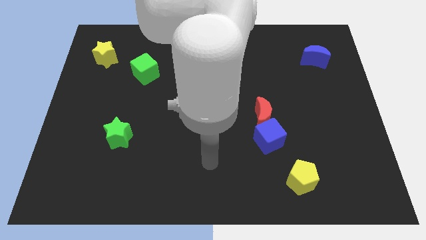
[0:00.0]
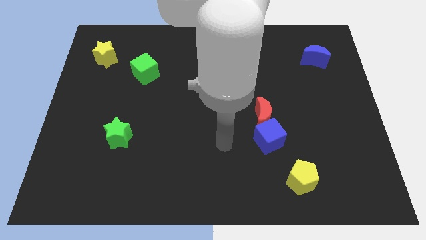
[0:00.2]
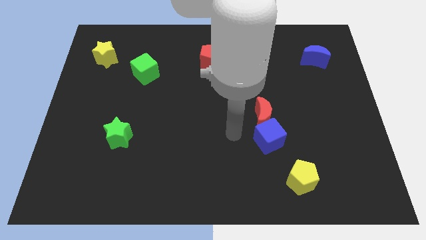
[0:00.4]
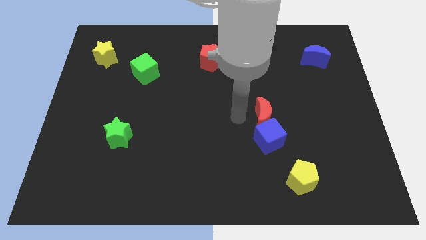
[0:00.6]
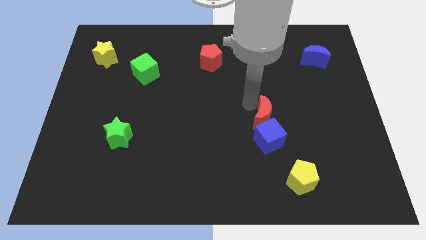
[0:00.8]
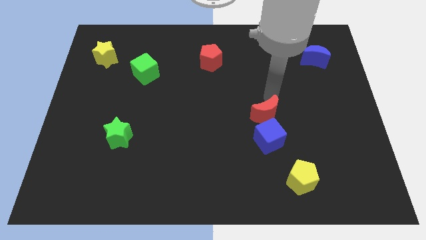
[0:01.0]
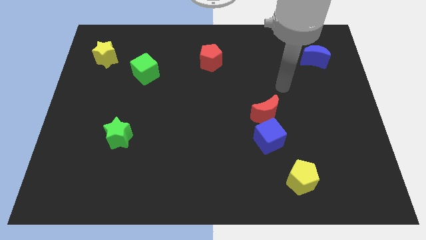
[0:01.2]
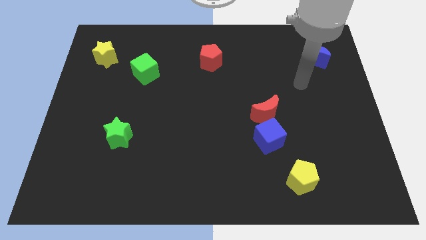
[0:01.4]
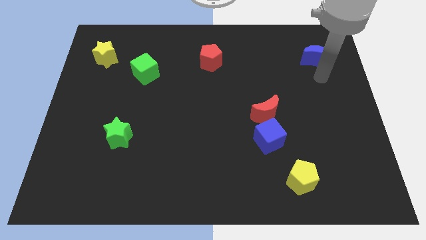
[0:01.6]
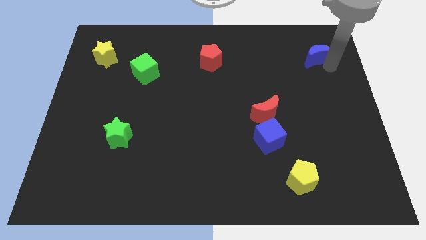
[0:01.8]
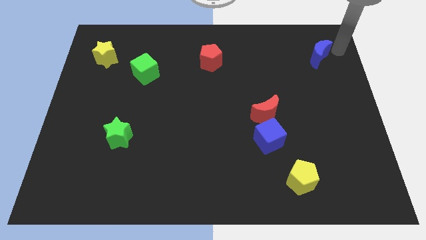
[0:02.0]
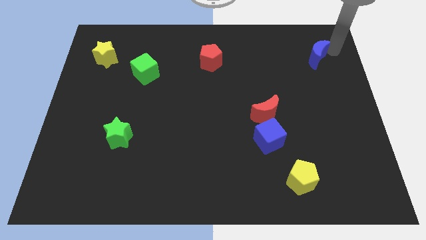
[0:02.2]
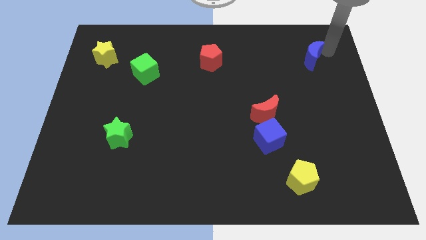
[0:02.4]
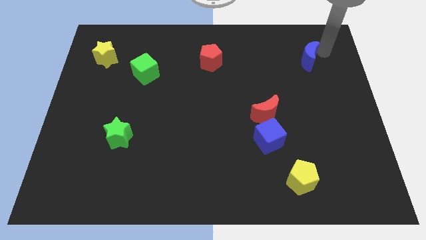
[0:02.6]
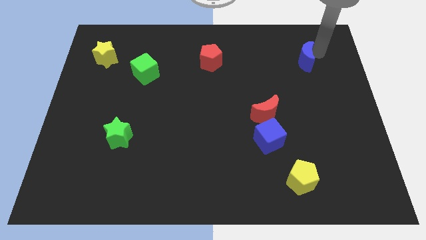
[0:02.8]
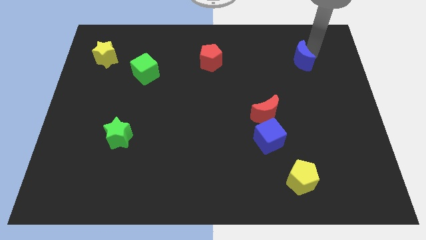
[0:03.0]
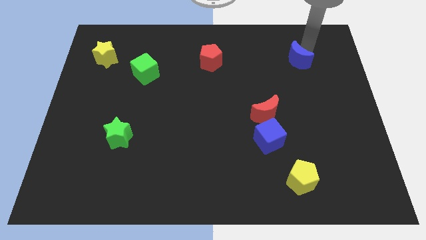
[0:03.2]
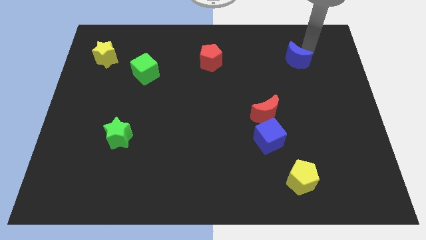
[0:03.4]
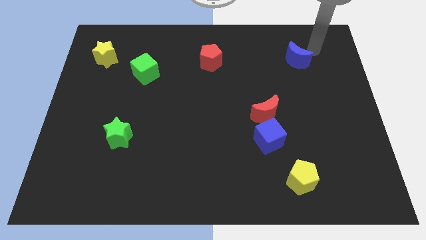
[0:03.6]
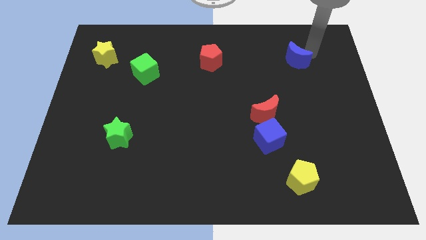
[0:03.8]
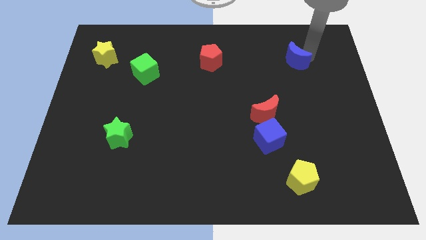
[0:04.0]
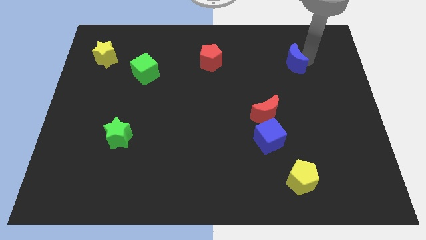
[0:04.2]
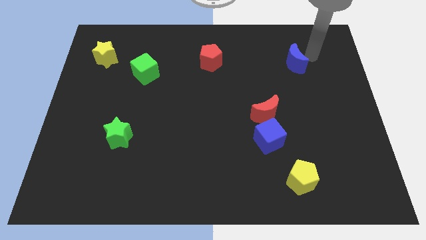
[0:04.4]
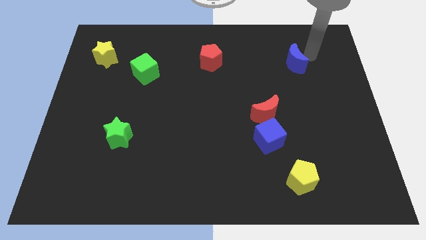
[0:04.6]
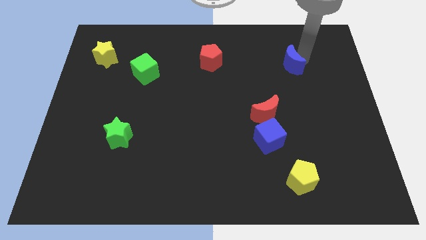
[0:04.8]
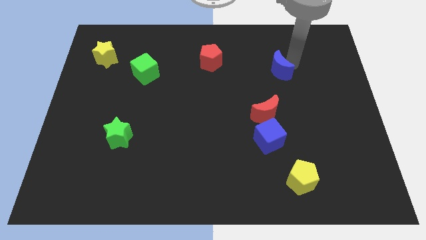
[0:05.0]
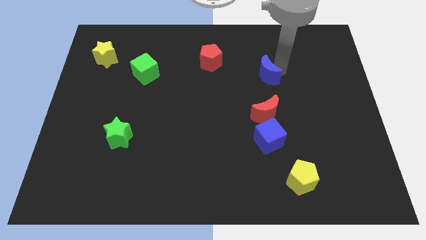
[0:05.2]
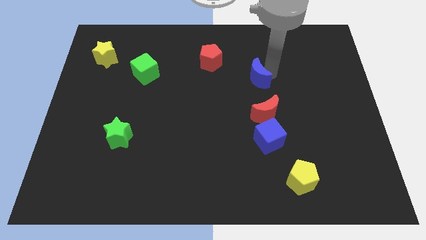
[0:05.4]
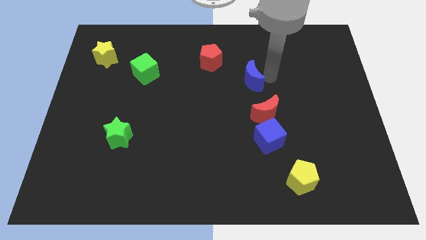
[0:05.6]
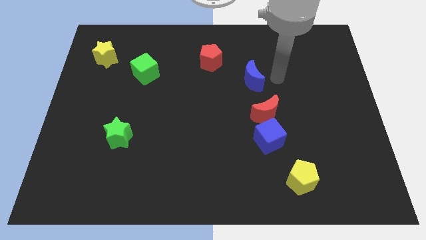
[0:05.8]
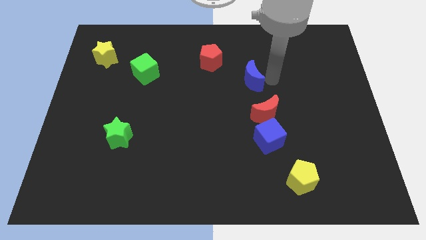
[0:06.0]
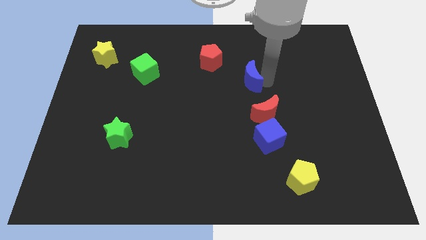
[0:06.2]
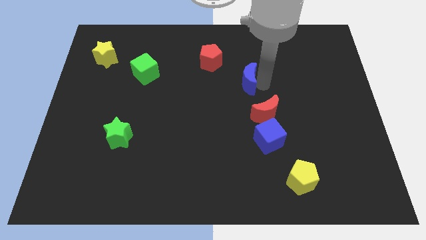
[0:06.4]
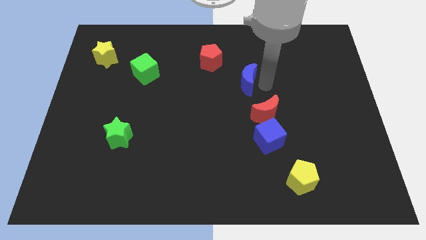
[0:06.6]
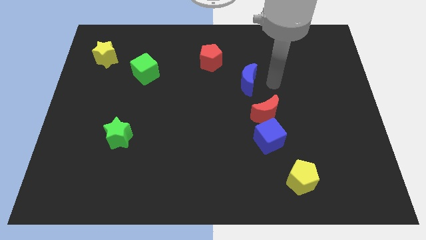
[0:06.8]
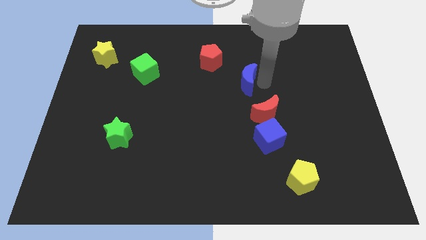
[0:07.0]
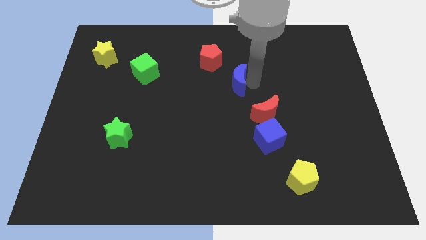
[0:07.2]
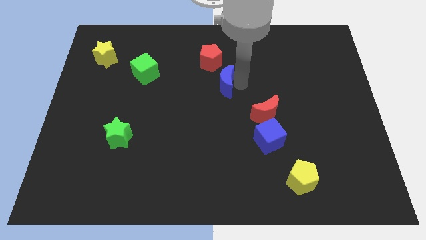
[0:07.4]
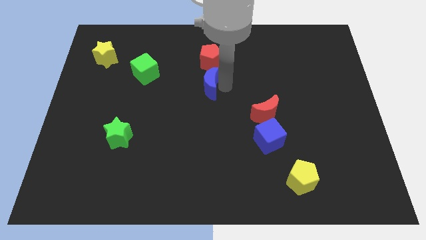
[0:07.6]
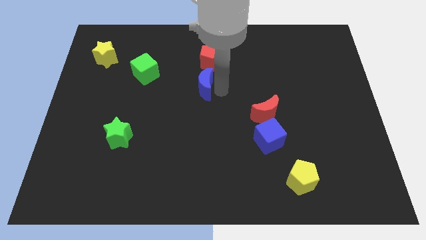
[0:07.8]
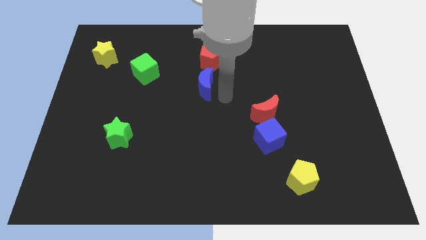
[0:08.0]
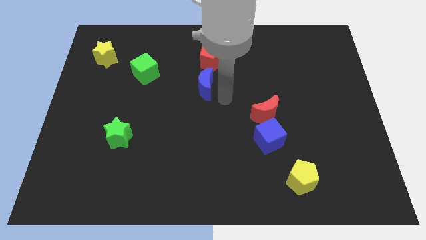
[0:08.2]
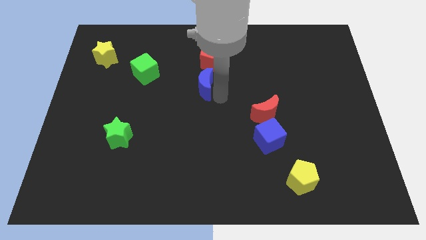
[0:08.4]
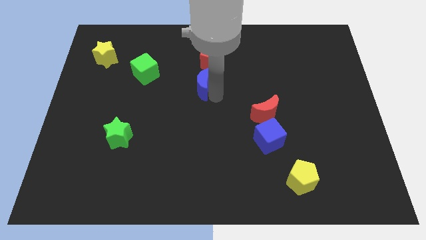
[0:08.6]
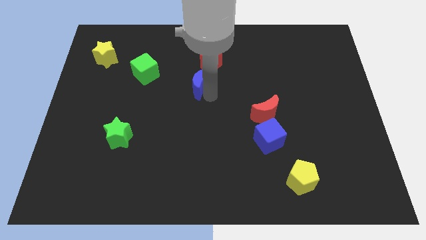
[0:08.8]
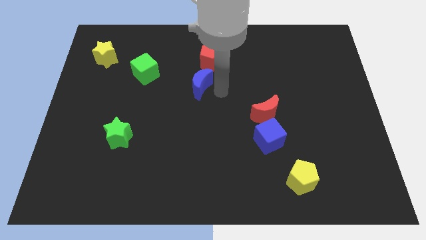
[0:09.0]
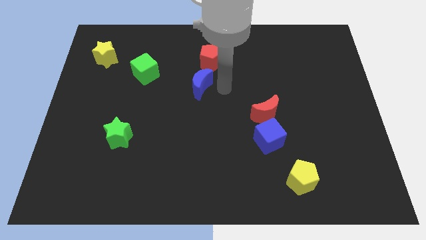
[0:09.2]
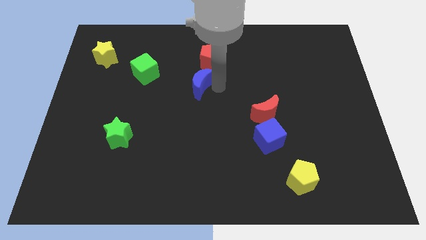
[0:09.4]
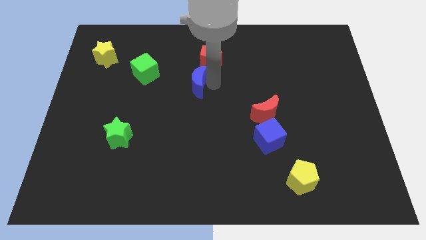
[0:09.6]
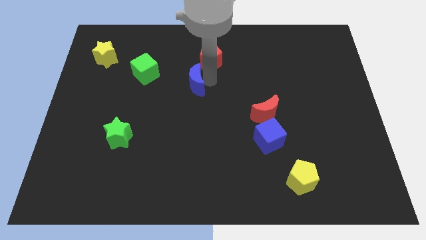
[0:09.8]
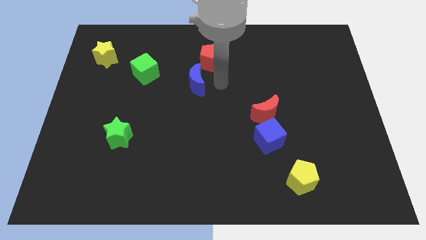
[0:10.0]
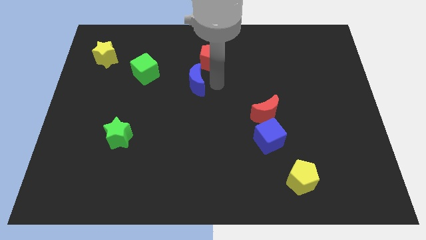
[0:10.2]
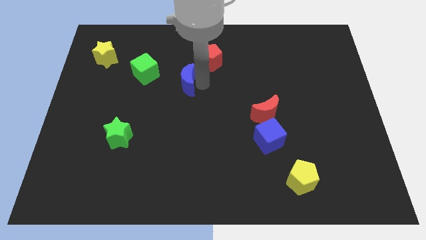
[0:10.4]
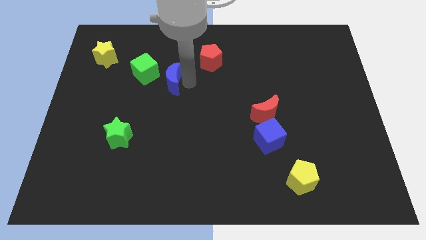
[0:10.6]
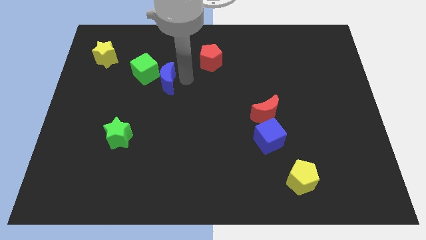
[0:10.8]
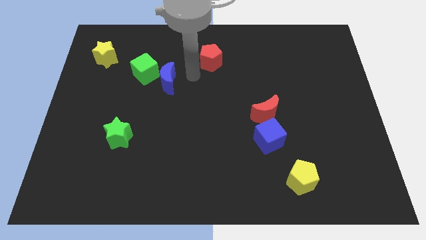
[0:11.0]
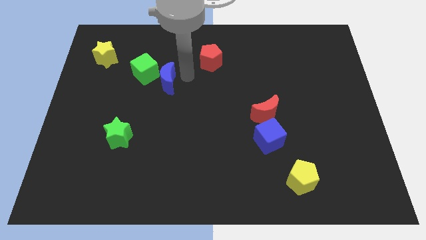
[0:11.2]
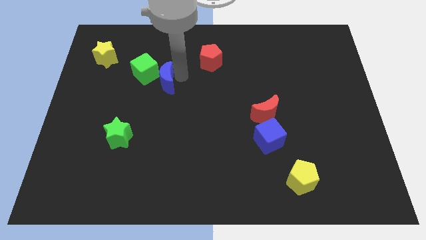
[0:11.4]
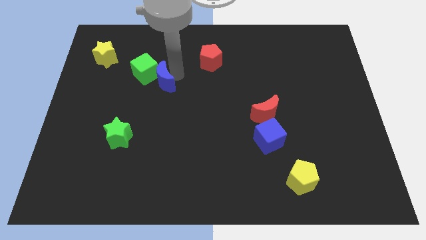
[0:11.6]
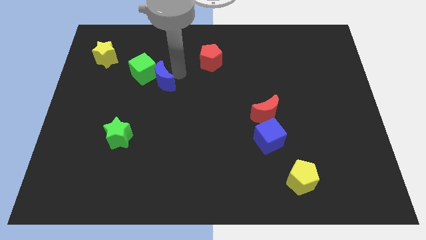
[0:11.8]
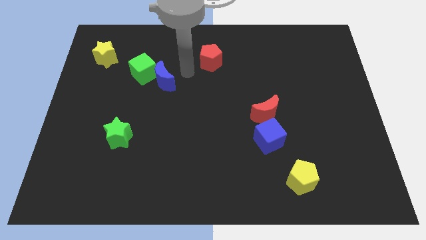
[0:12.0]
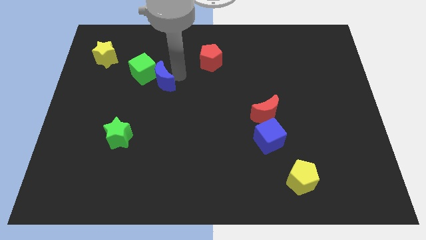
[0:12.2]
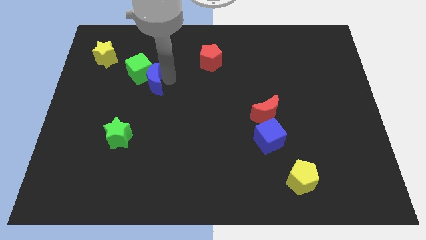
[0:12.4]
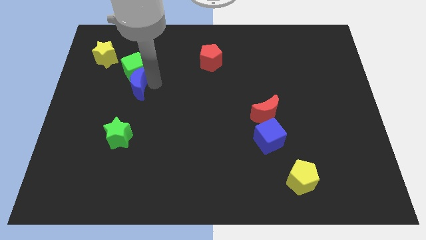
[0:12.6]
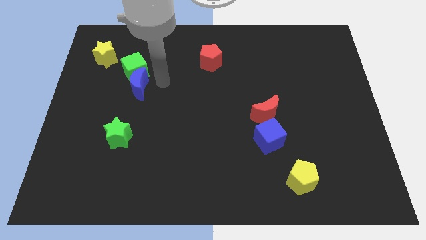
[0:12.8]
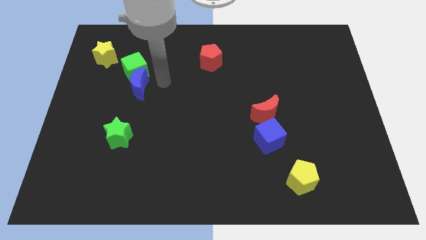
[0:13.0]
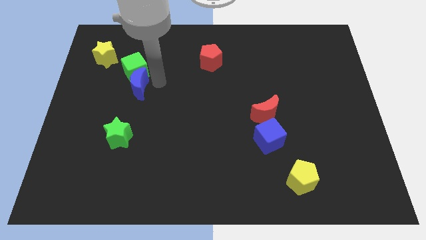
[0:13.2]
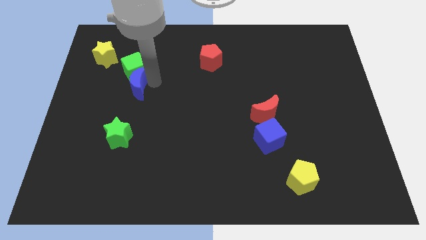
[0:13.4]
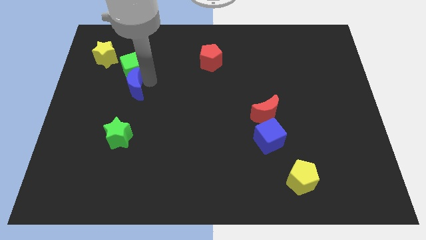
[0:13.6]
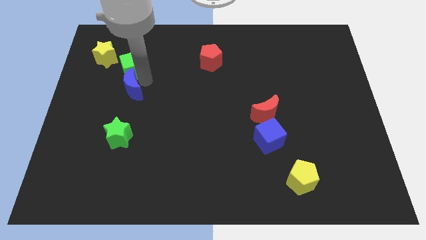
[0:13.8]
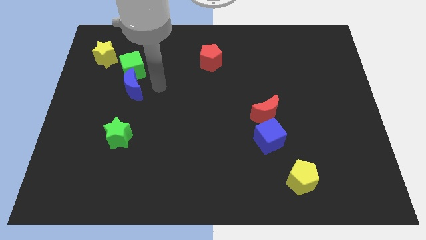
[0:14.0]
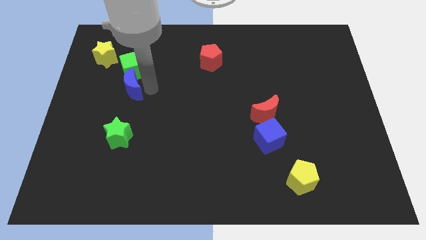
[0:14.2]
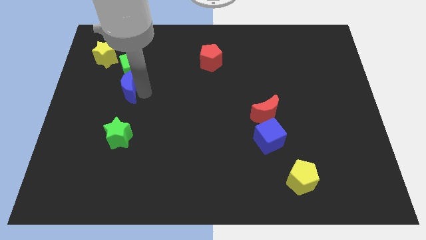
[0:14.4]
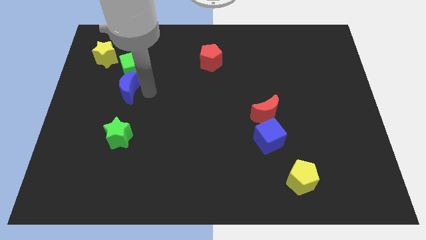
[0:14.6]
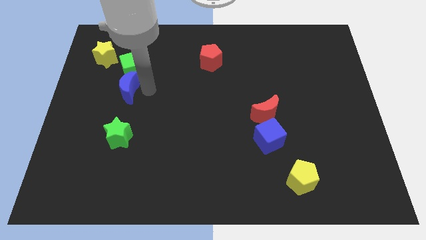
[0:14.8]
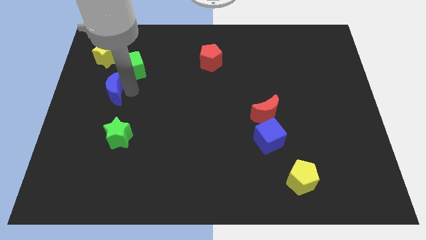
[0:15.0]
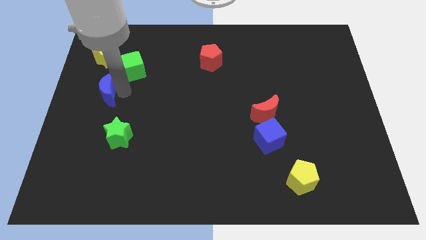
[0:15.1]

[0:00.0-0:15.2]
slide the blue moon to the left side
